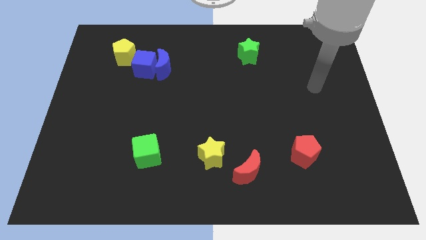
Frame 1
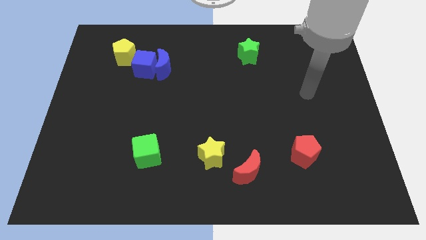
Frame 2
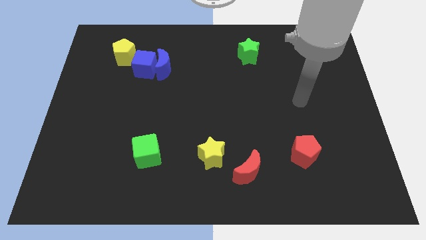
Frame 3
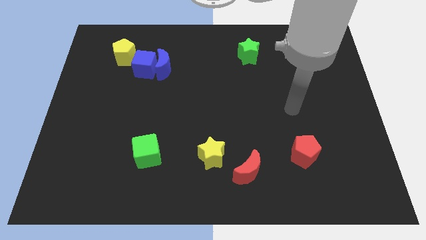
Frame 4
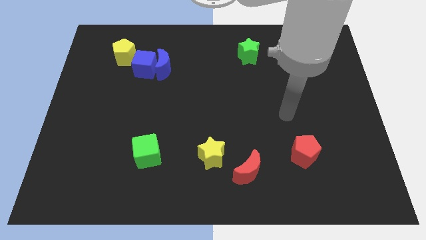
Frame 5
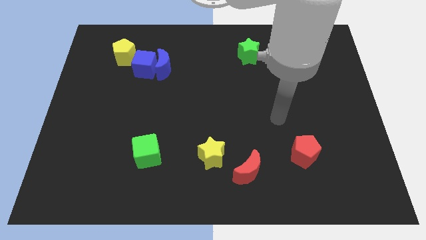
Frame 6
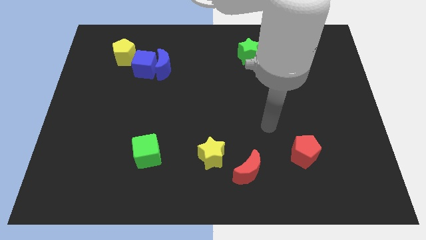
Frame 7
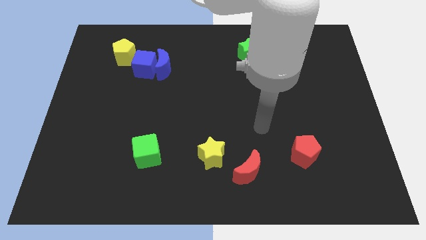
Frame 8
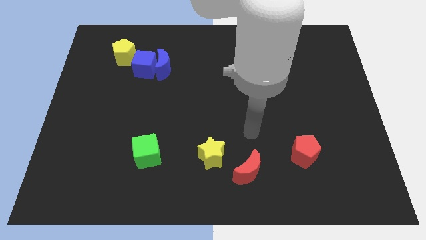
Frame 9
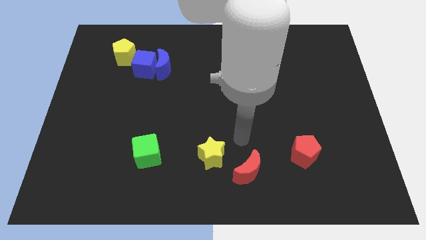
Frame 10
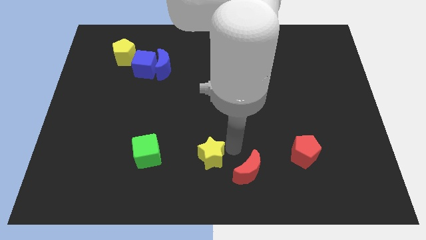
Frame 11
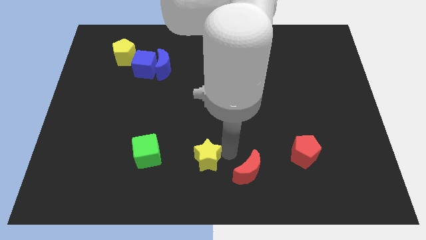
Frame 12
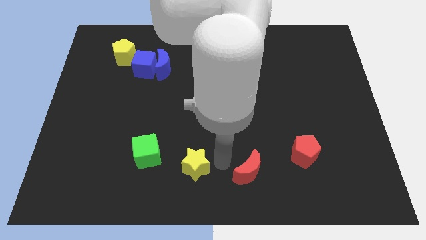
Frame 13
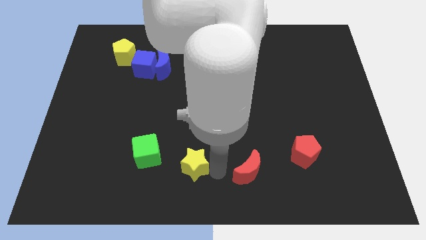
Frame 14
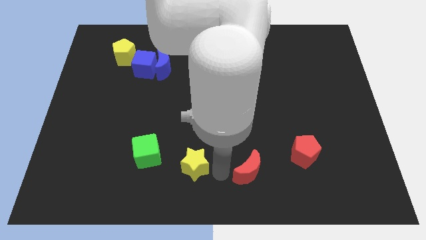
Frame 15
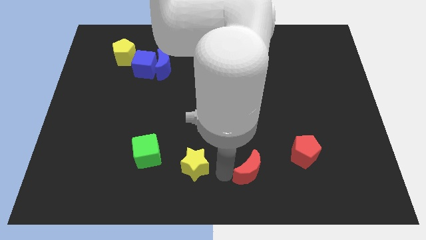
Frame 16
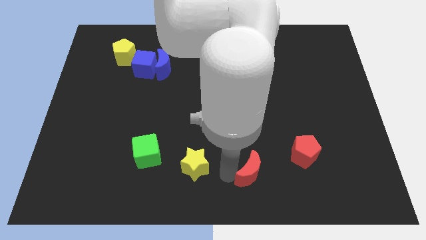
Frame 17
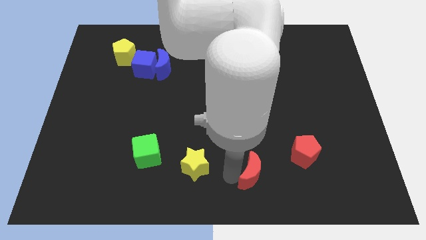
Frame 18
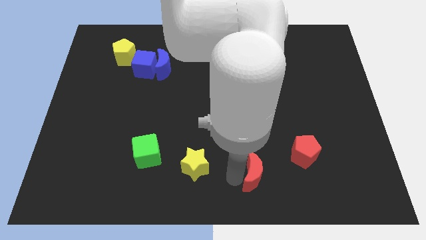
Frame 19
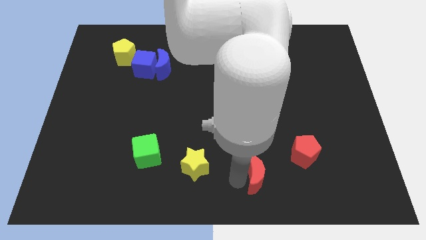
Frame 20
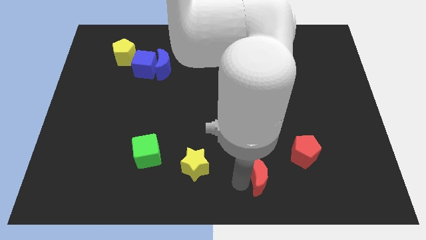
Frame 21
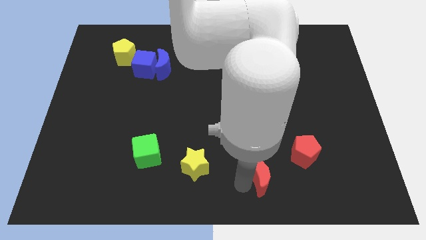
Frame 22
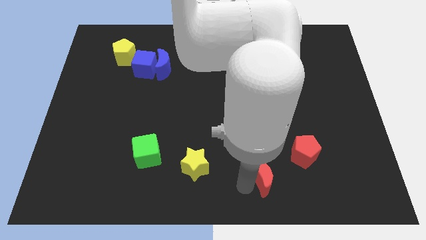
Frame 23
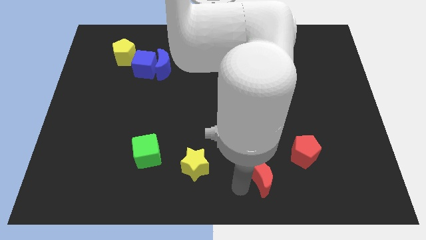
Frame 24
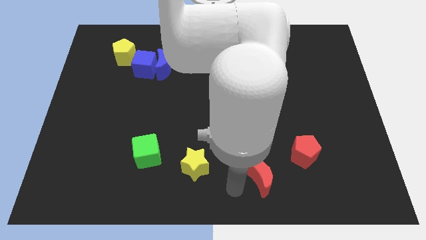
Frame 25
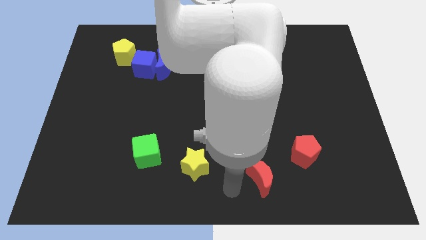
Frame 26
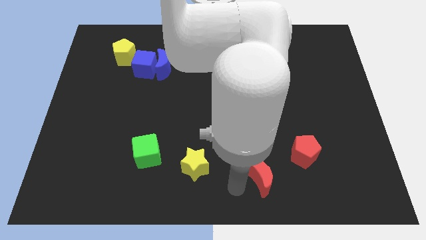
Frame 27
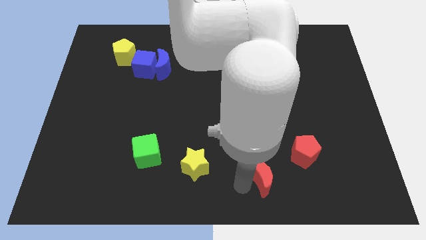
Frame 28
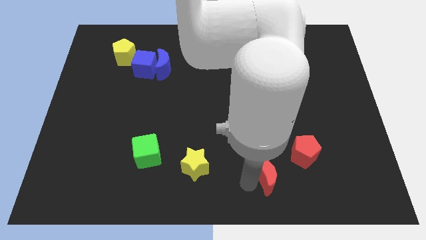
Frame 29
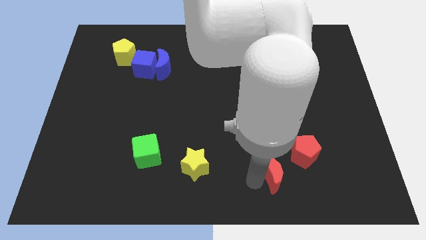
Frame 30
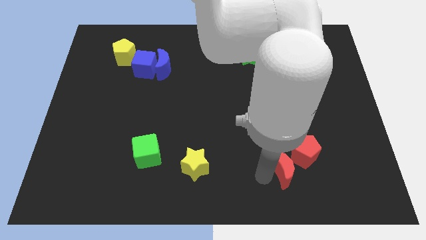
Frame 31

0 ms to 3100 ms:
slightly move the red moon right

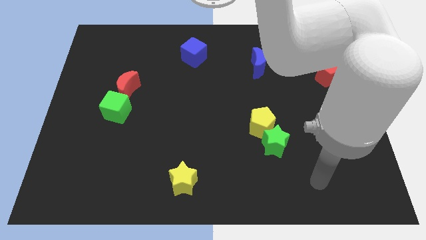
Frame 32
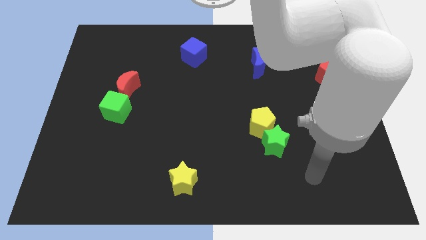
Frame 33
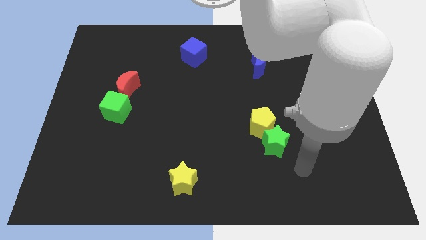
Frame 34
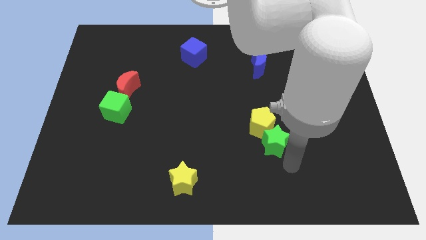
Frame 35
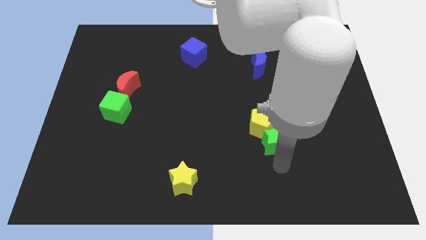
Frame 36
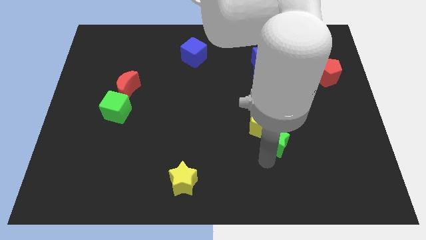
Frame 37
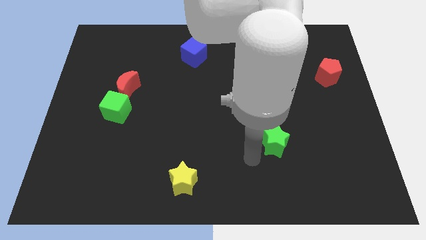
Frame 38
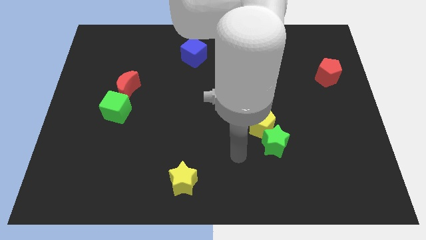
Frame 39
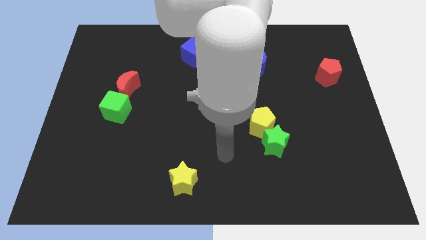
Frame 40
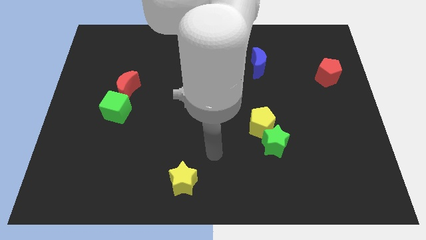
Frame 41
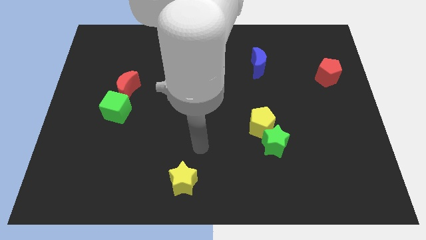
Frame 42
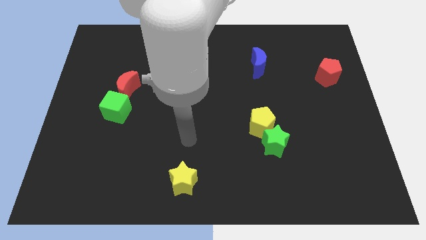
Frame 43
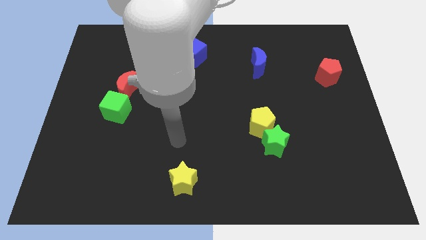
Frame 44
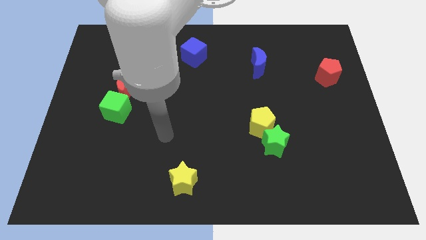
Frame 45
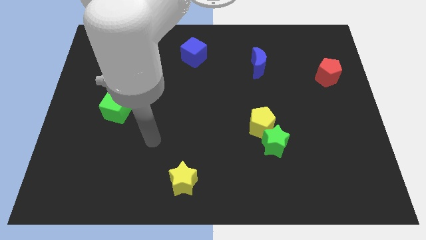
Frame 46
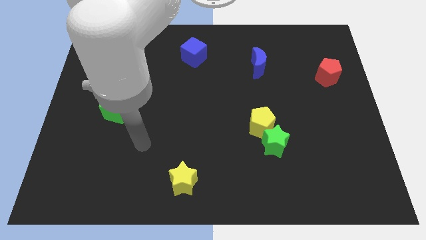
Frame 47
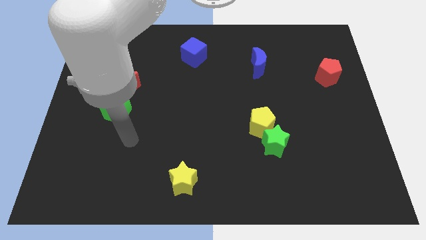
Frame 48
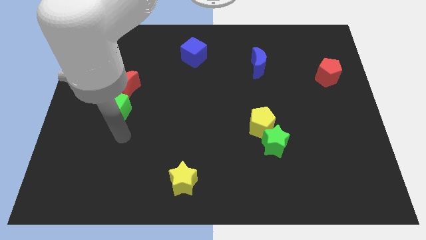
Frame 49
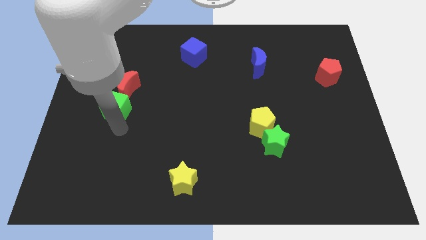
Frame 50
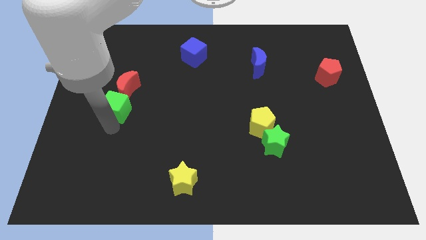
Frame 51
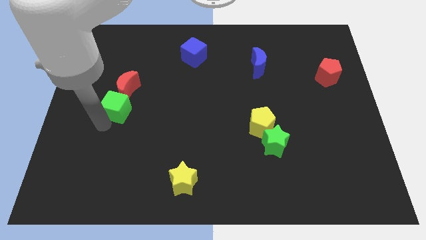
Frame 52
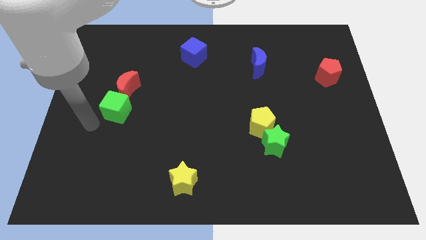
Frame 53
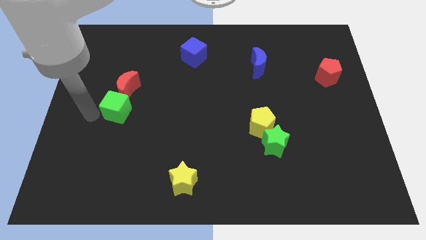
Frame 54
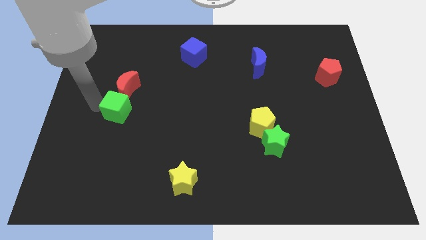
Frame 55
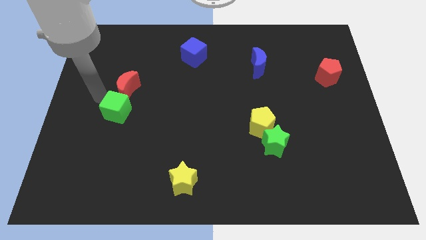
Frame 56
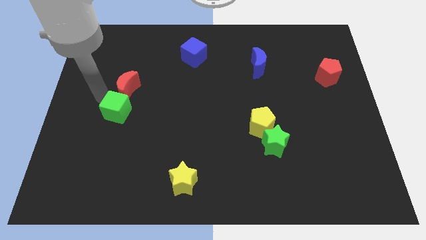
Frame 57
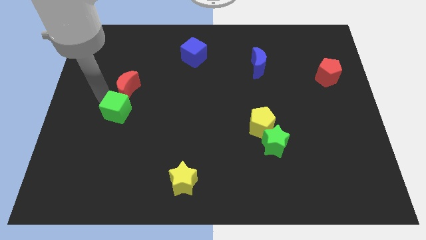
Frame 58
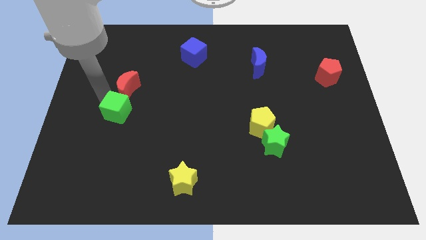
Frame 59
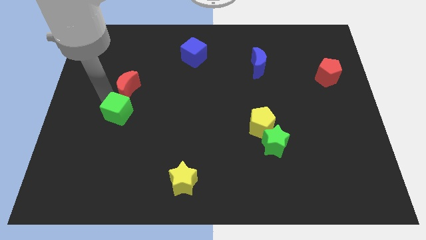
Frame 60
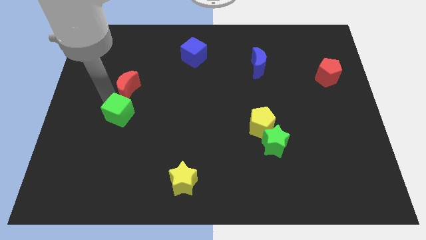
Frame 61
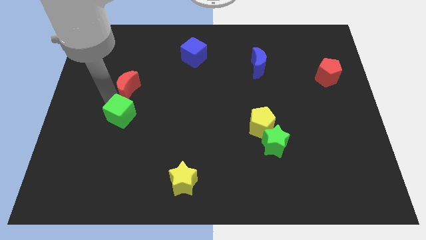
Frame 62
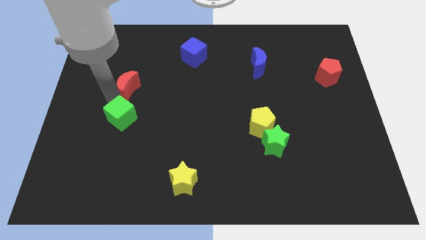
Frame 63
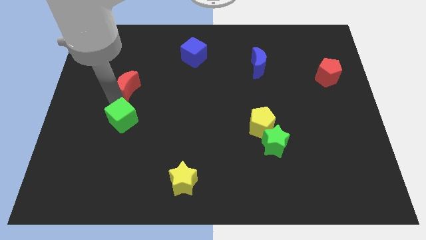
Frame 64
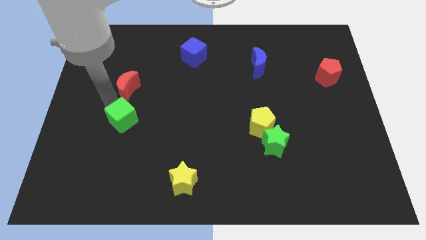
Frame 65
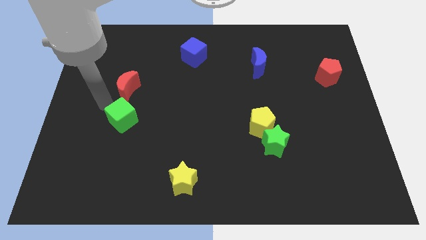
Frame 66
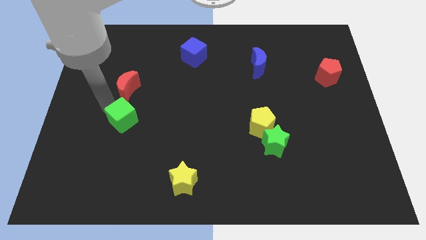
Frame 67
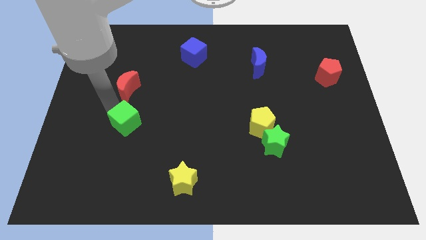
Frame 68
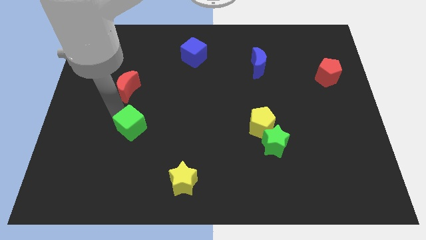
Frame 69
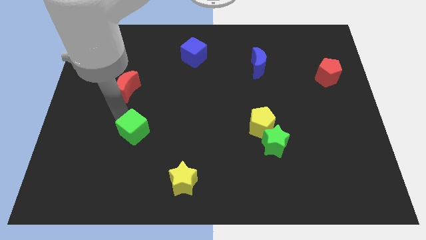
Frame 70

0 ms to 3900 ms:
slightly push the green cube down and then to the right

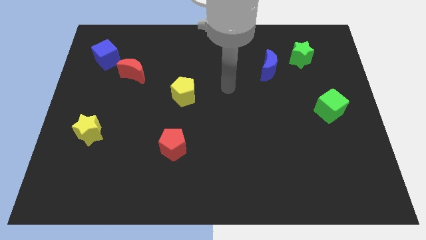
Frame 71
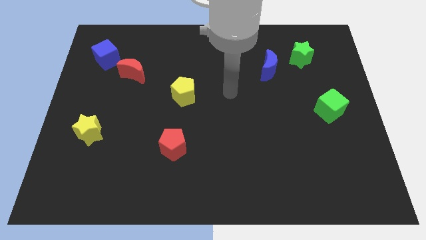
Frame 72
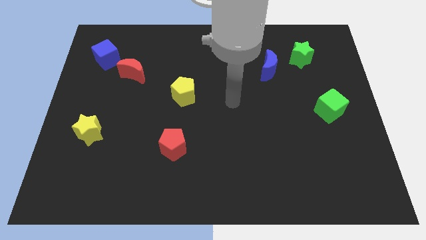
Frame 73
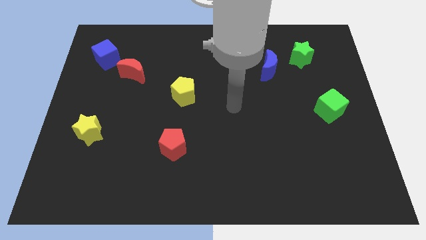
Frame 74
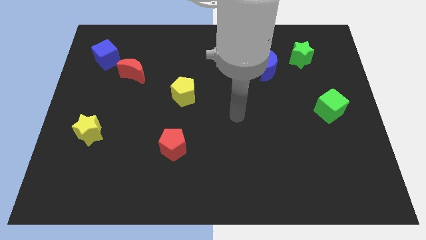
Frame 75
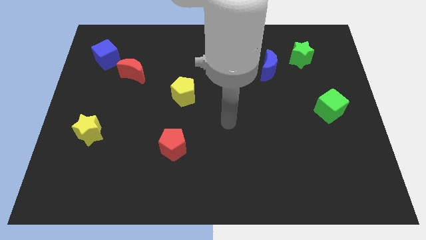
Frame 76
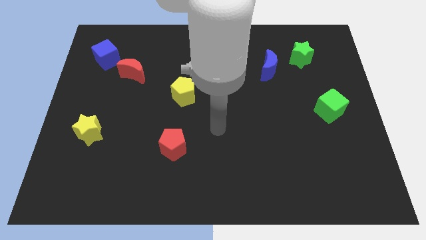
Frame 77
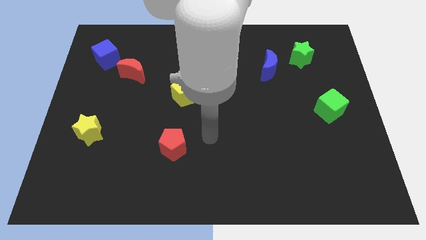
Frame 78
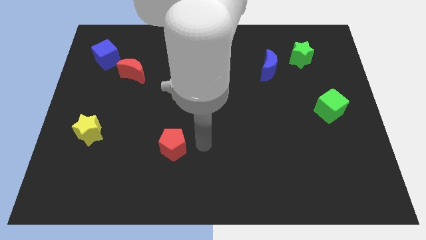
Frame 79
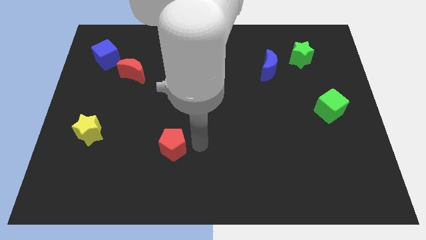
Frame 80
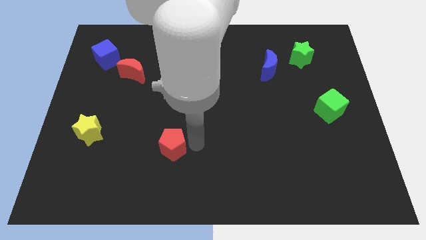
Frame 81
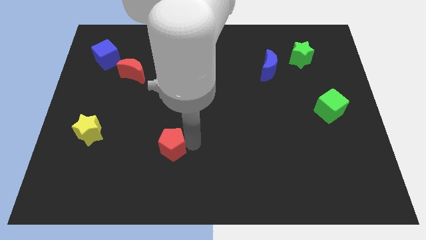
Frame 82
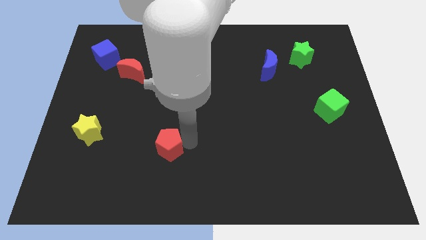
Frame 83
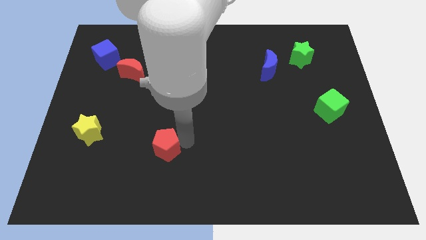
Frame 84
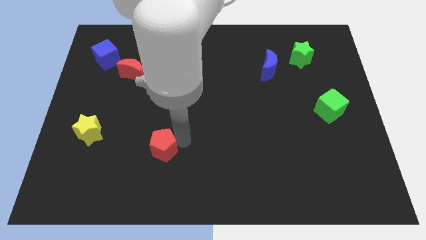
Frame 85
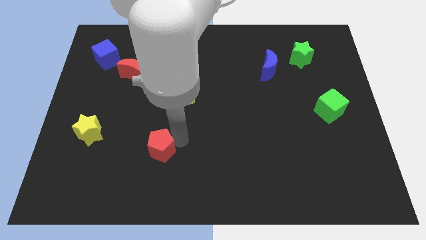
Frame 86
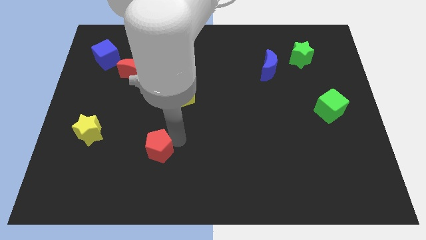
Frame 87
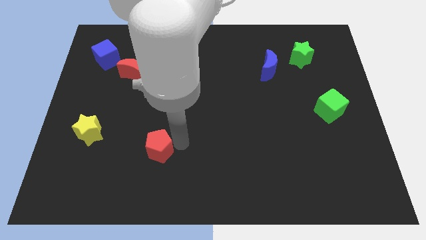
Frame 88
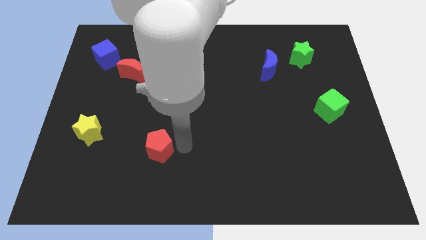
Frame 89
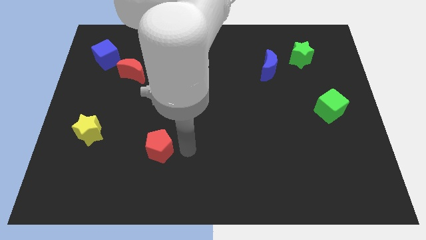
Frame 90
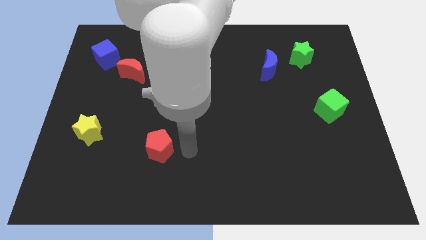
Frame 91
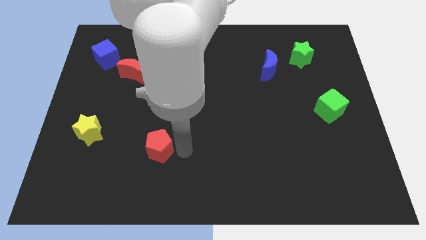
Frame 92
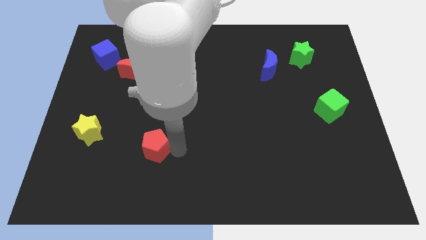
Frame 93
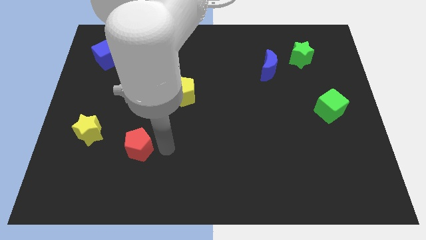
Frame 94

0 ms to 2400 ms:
move the red pentagon left slightly
